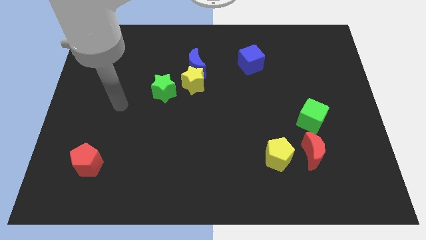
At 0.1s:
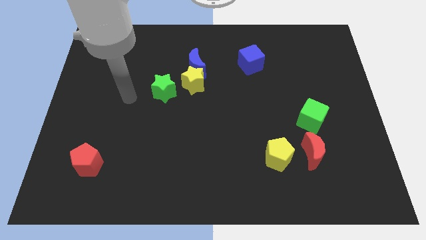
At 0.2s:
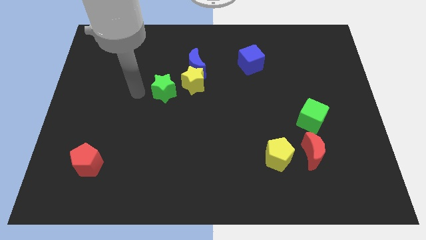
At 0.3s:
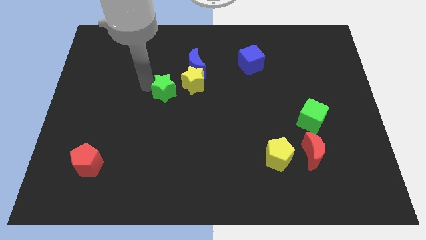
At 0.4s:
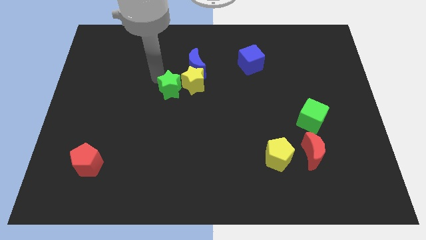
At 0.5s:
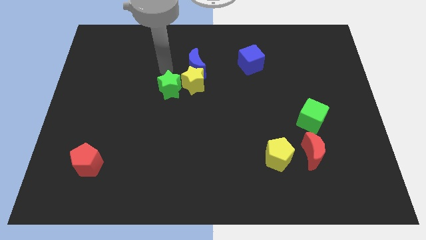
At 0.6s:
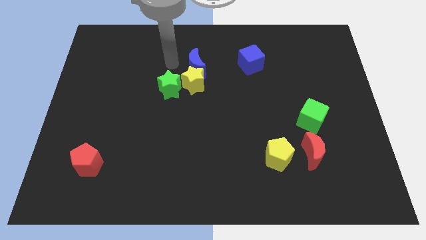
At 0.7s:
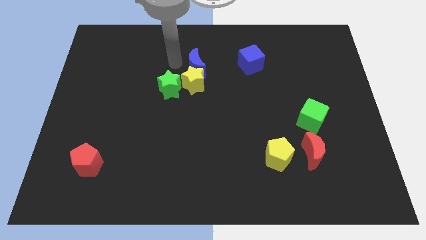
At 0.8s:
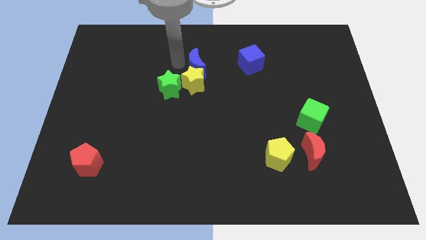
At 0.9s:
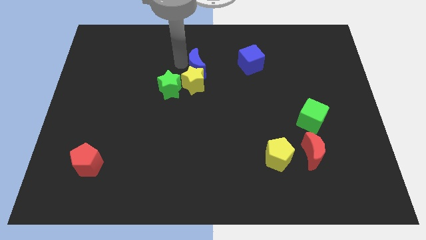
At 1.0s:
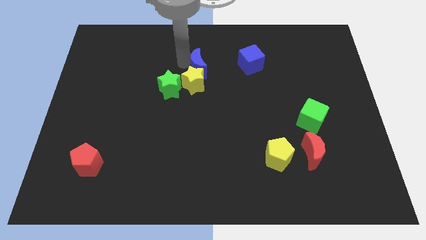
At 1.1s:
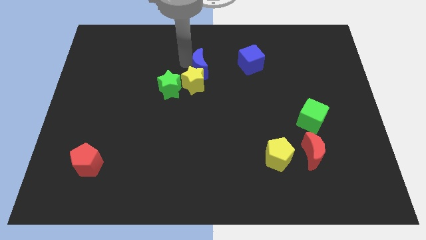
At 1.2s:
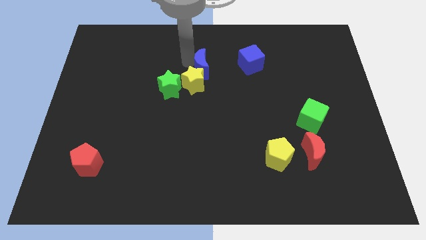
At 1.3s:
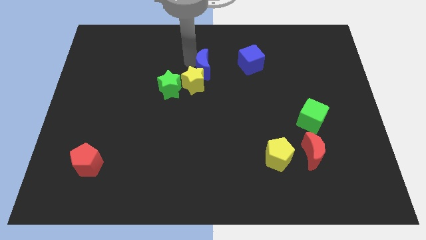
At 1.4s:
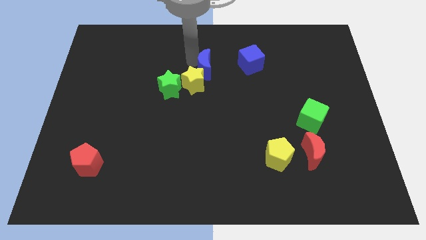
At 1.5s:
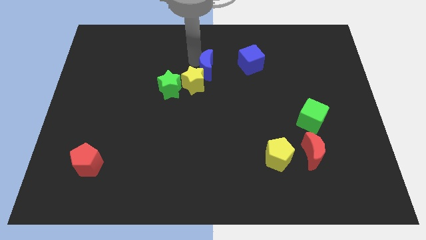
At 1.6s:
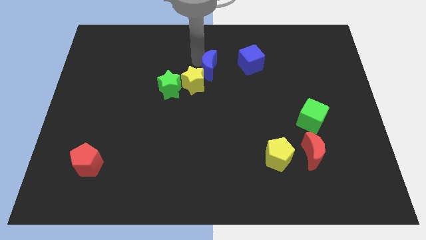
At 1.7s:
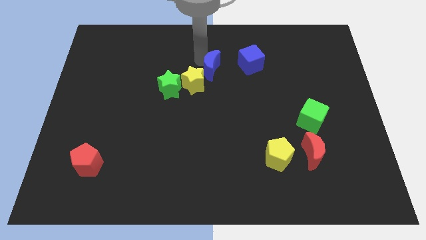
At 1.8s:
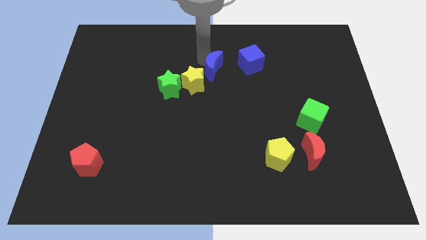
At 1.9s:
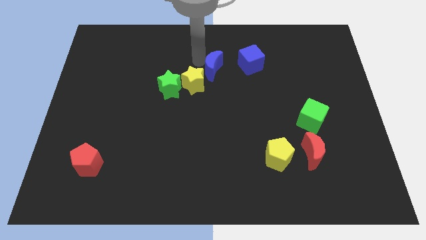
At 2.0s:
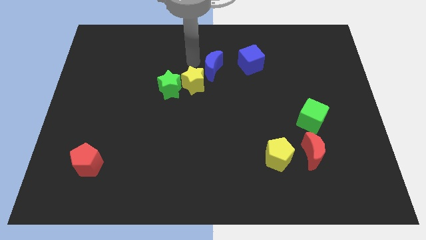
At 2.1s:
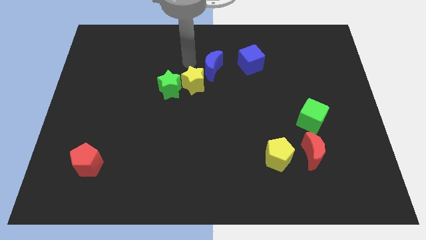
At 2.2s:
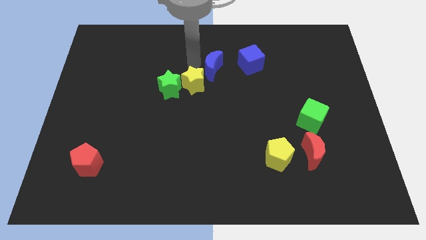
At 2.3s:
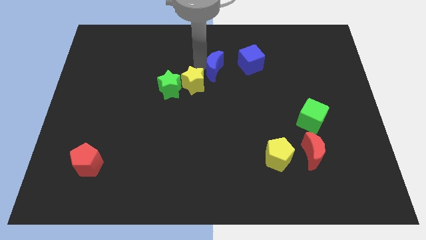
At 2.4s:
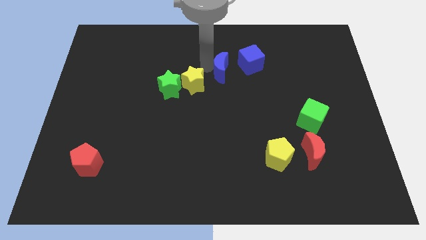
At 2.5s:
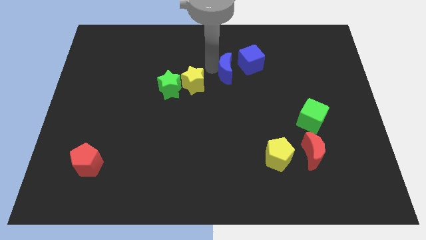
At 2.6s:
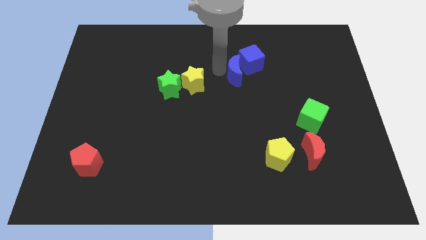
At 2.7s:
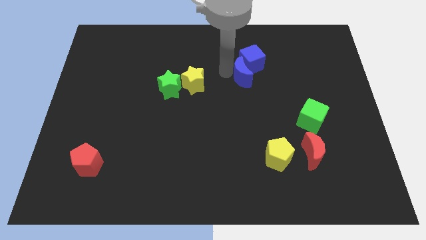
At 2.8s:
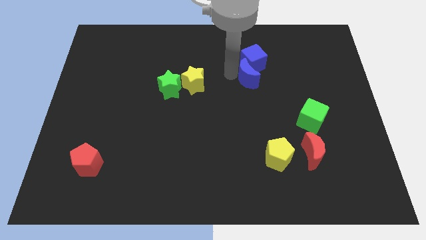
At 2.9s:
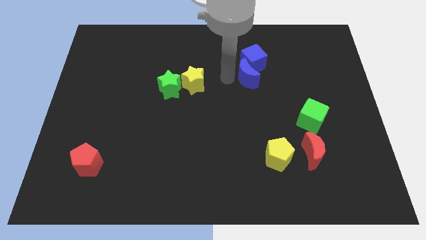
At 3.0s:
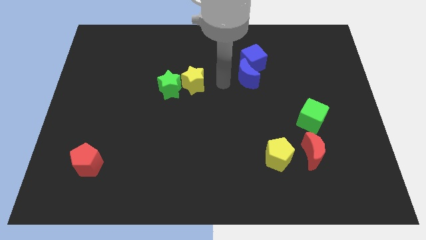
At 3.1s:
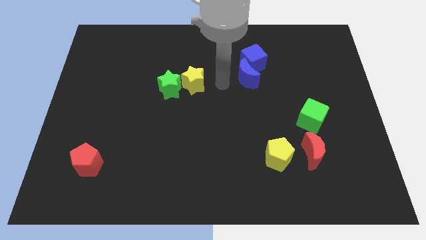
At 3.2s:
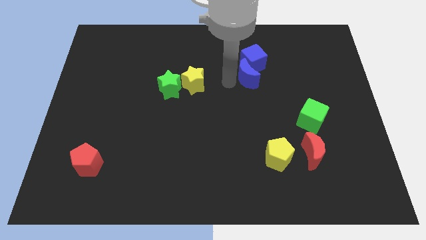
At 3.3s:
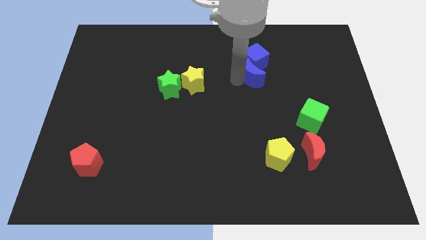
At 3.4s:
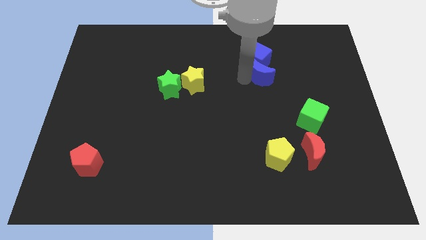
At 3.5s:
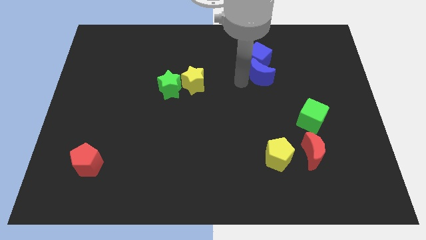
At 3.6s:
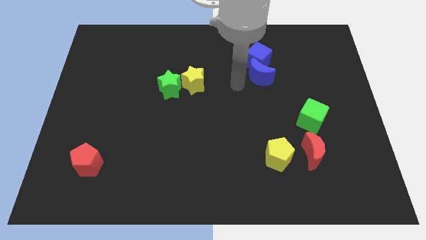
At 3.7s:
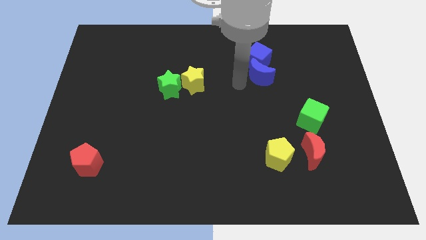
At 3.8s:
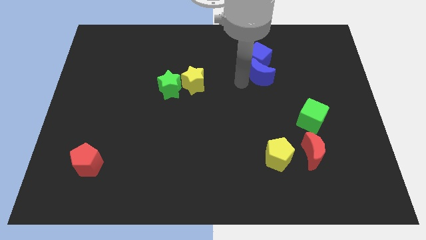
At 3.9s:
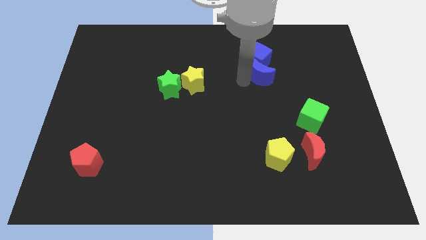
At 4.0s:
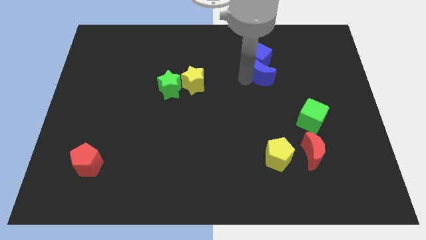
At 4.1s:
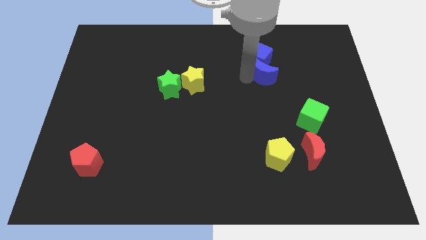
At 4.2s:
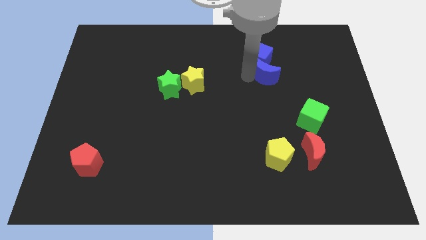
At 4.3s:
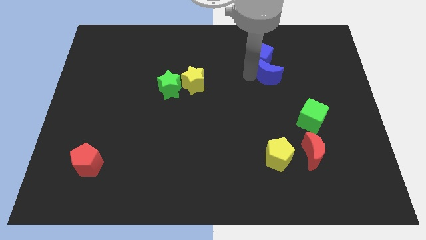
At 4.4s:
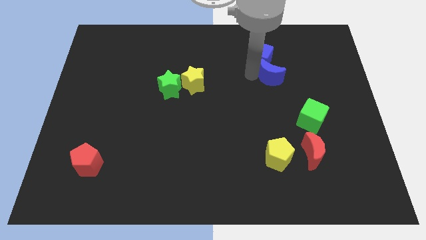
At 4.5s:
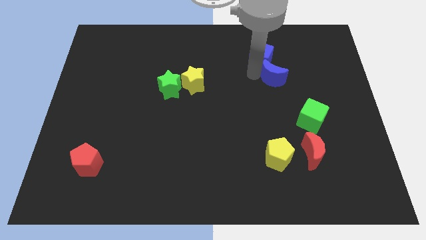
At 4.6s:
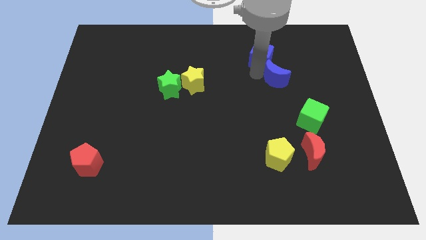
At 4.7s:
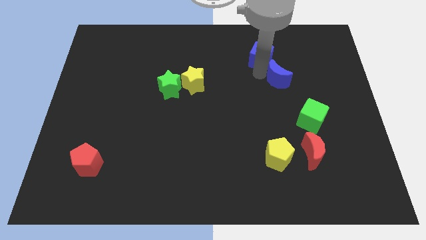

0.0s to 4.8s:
move the blue moon to the right

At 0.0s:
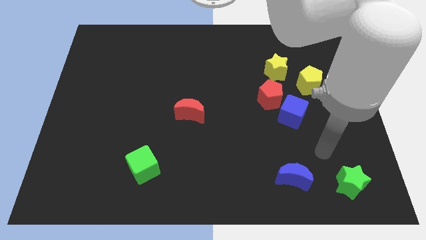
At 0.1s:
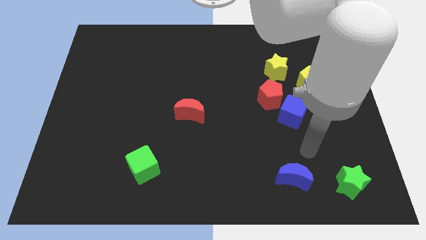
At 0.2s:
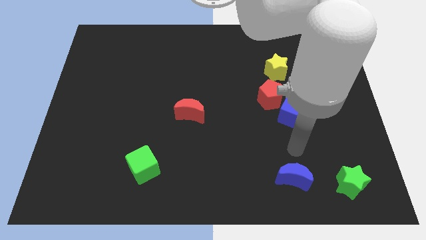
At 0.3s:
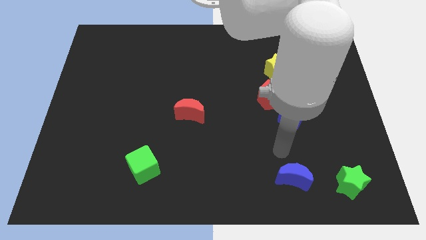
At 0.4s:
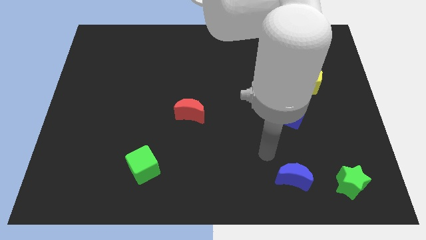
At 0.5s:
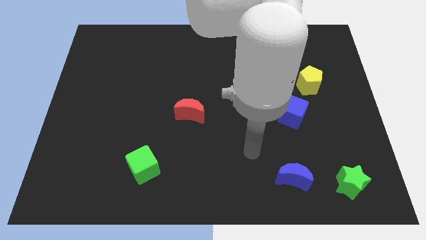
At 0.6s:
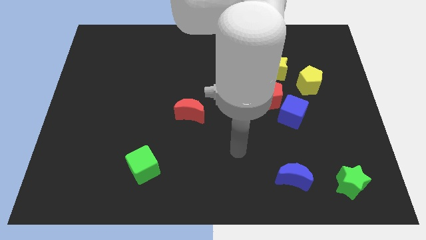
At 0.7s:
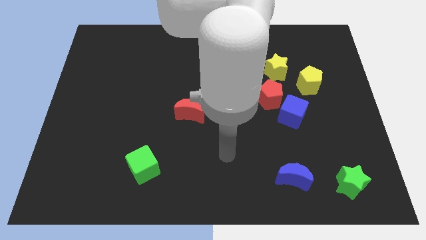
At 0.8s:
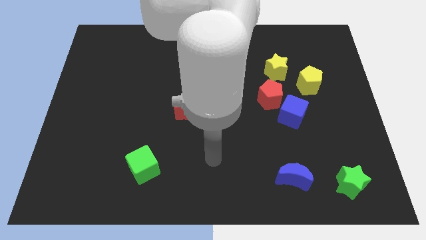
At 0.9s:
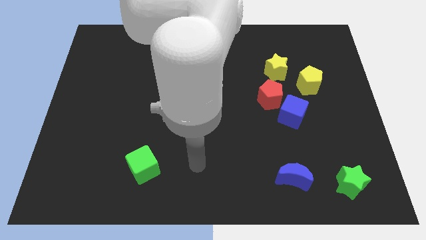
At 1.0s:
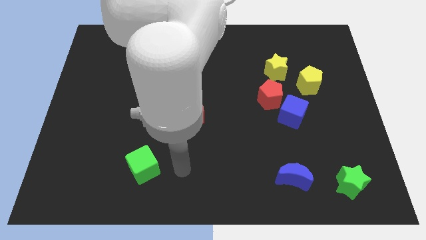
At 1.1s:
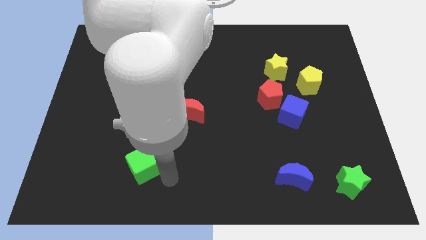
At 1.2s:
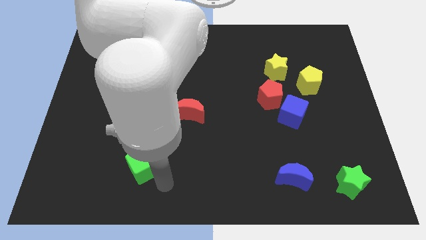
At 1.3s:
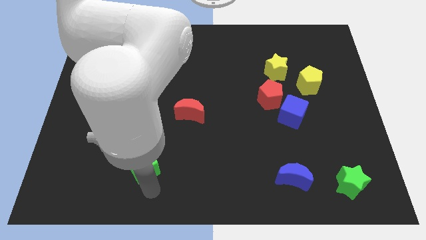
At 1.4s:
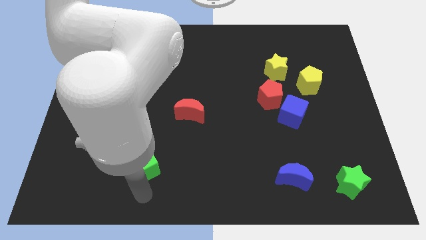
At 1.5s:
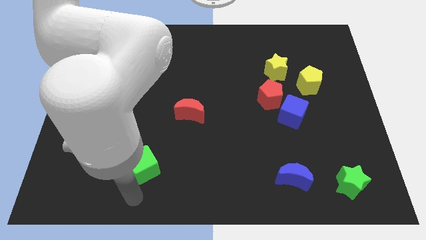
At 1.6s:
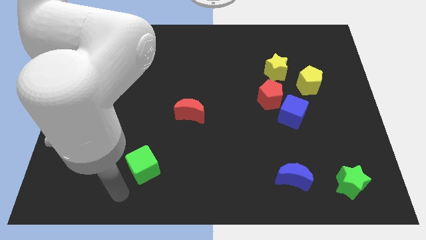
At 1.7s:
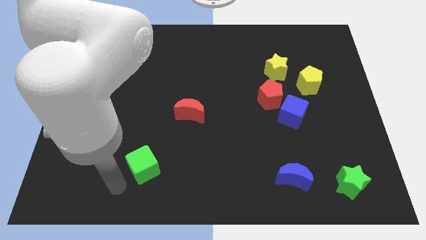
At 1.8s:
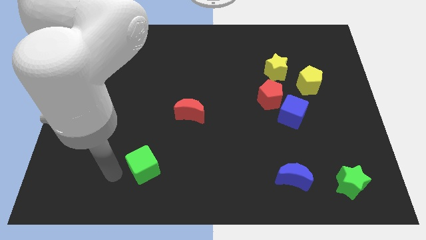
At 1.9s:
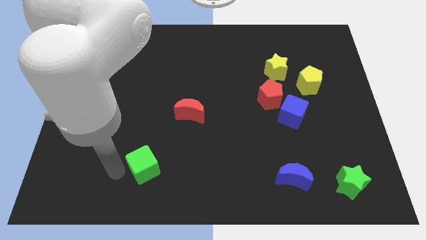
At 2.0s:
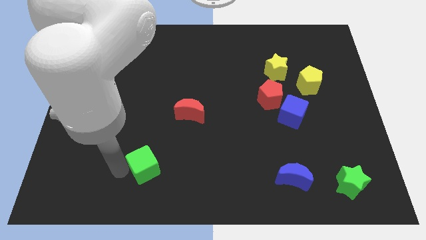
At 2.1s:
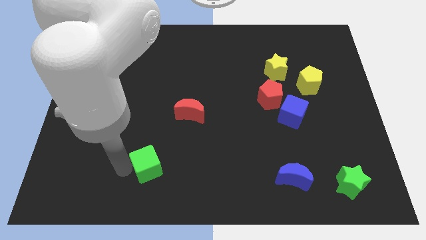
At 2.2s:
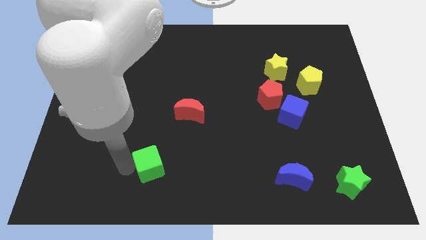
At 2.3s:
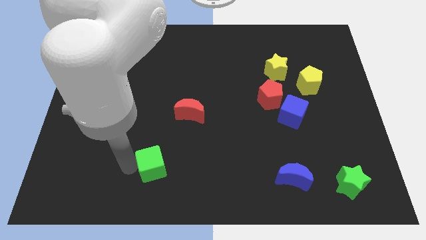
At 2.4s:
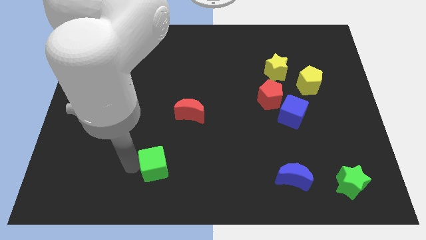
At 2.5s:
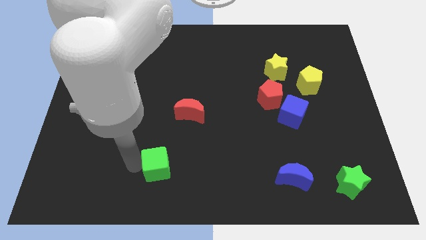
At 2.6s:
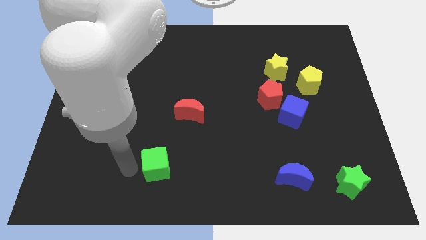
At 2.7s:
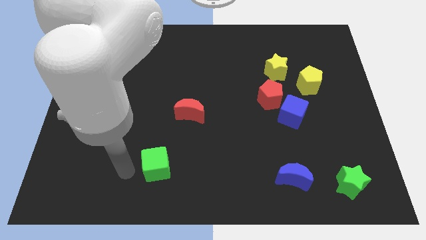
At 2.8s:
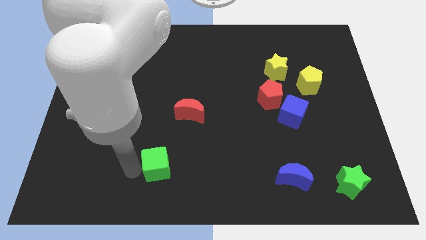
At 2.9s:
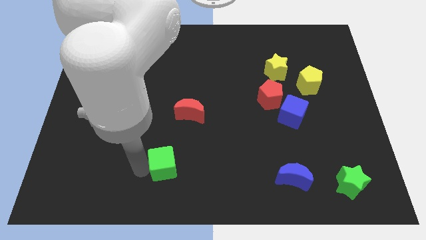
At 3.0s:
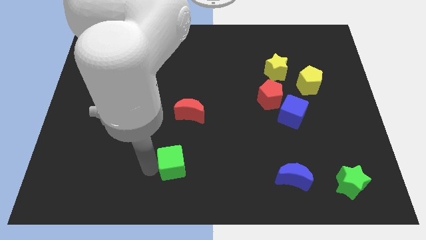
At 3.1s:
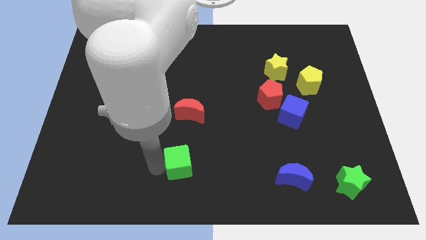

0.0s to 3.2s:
slightly move the green cube to the right

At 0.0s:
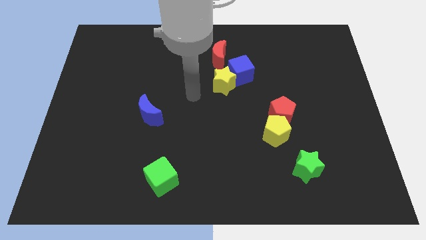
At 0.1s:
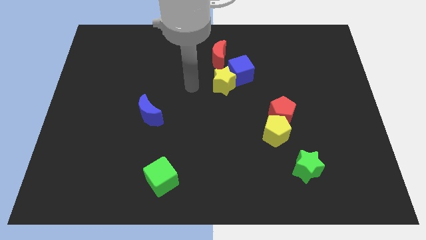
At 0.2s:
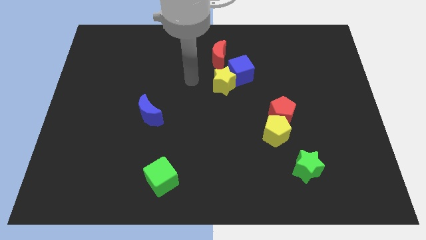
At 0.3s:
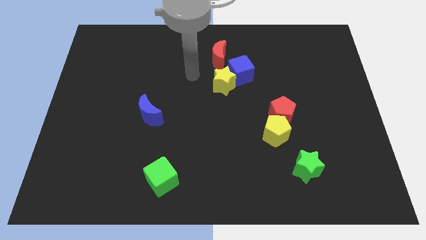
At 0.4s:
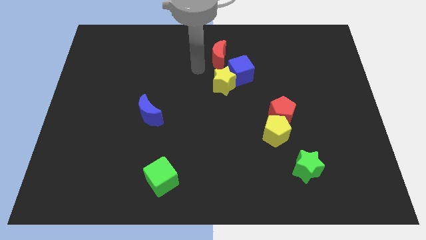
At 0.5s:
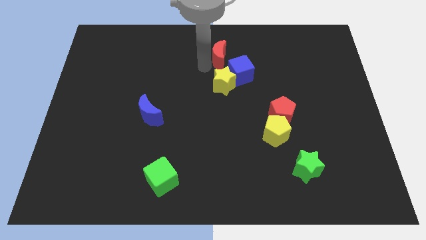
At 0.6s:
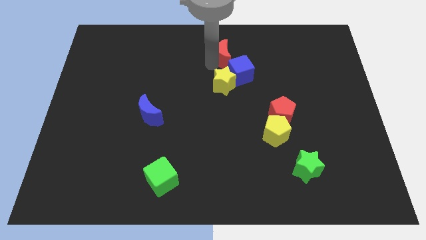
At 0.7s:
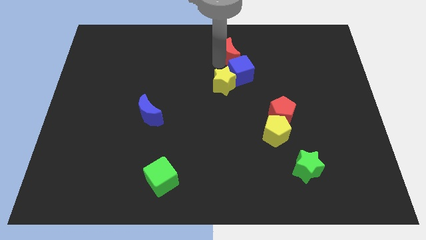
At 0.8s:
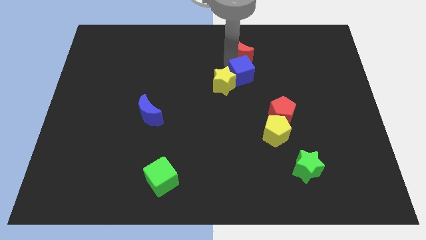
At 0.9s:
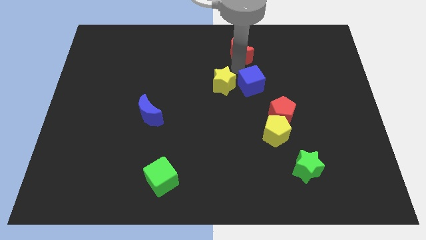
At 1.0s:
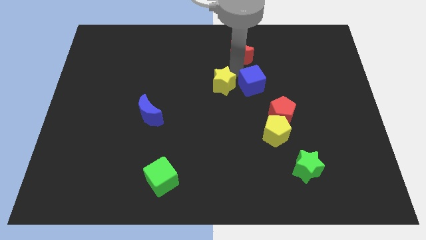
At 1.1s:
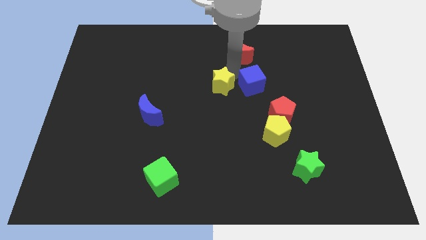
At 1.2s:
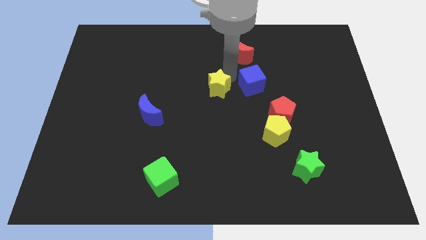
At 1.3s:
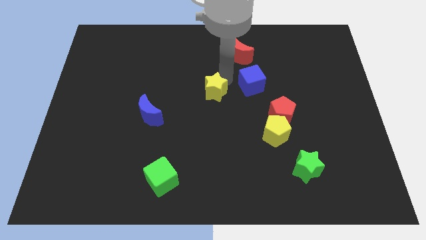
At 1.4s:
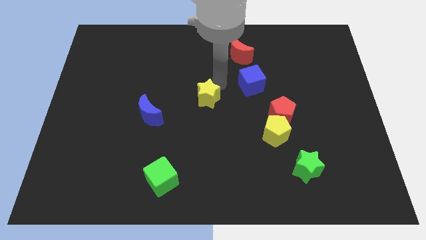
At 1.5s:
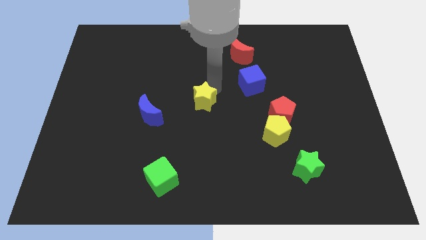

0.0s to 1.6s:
slide the yellow star downwards and to the left diagonally somewhat
